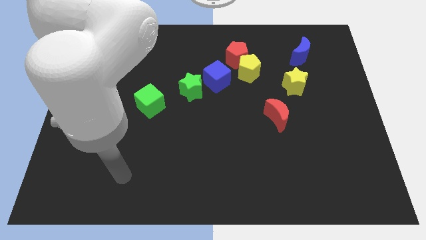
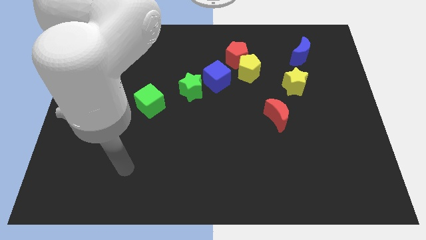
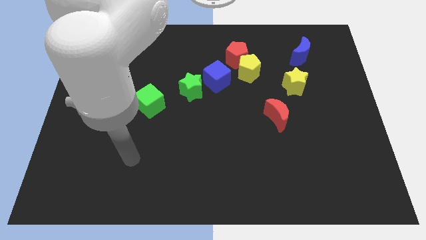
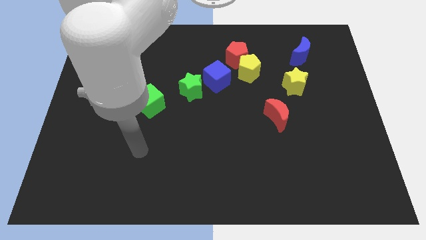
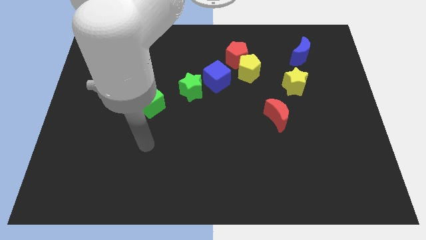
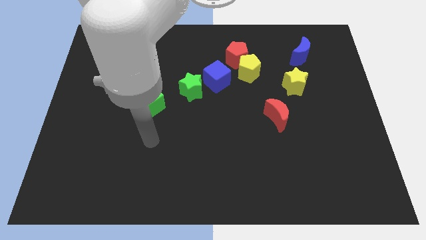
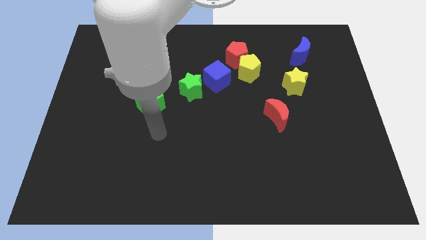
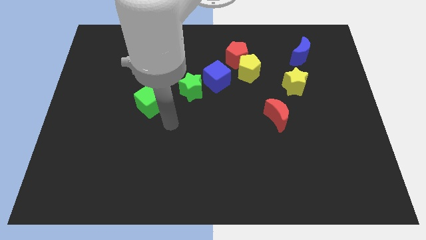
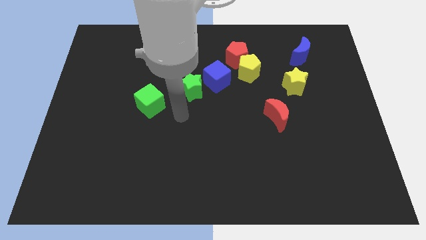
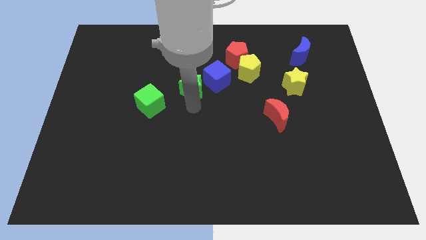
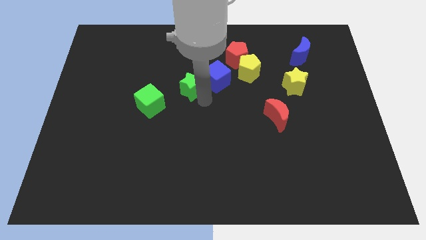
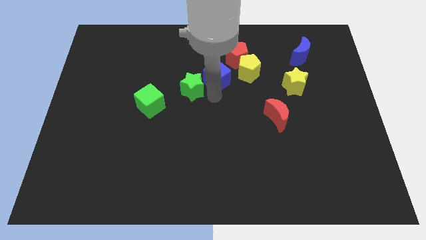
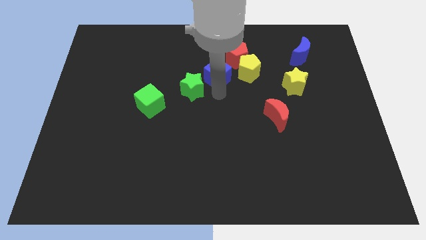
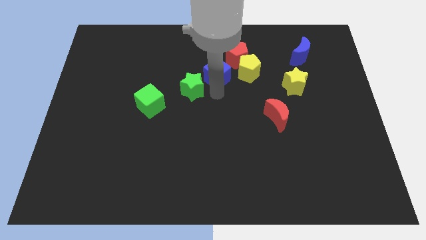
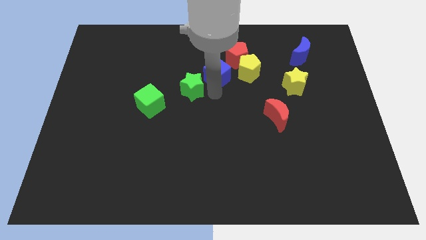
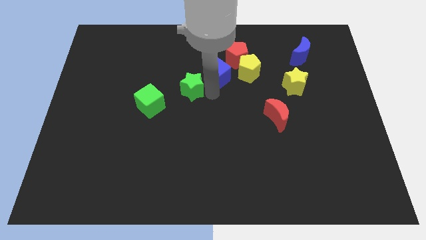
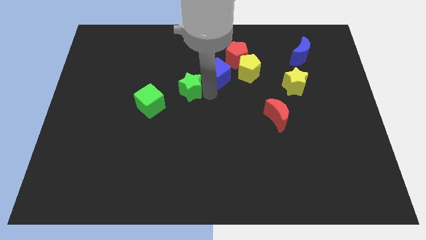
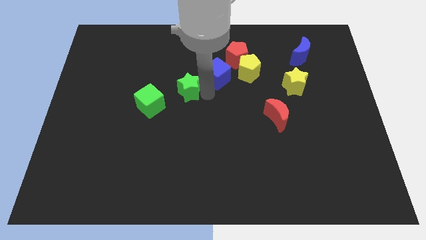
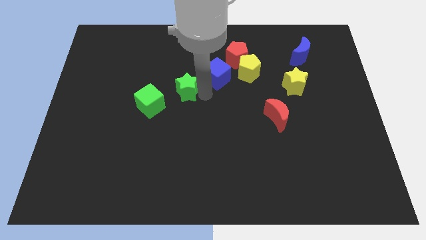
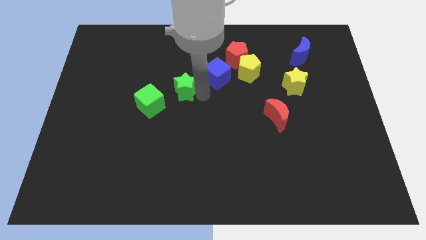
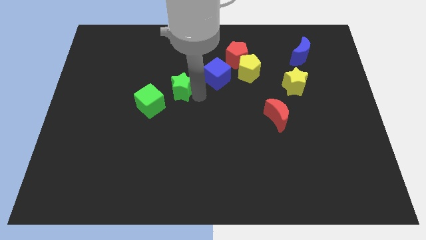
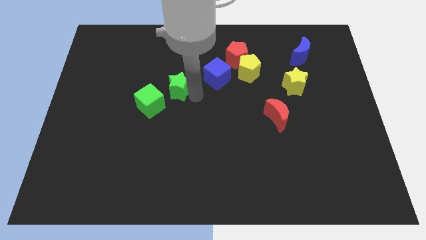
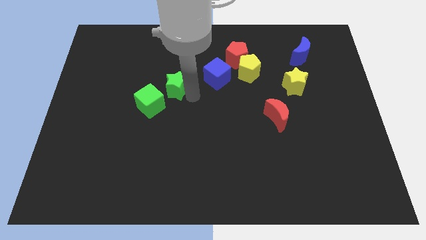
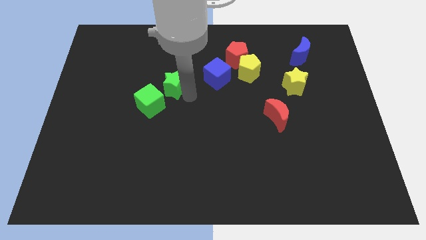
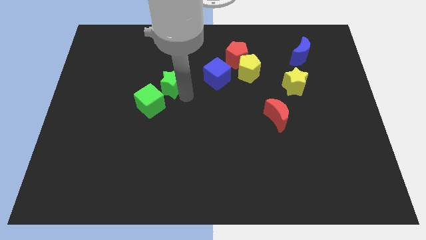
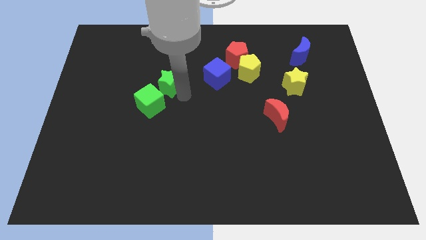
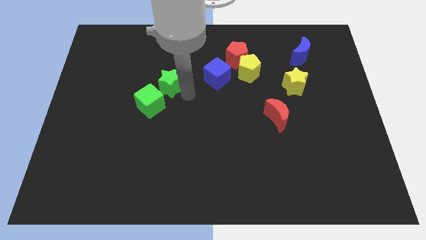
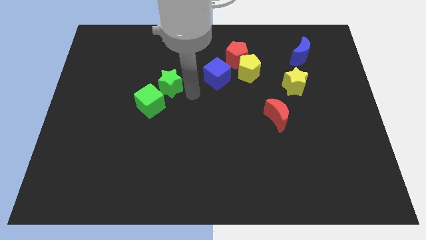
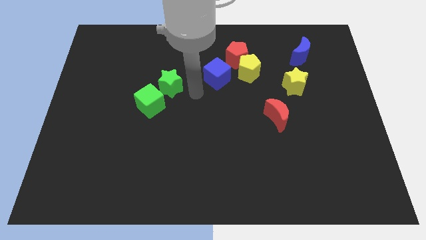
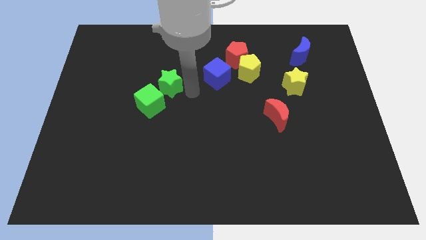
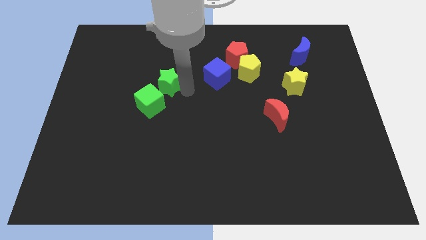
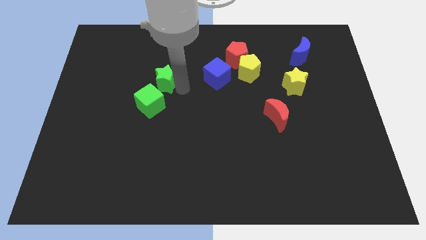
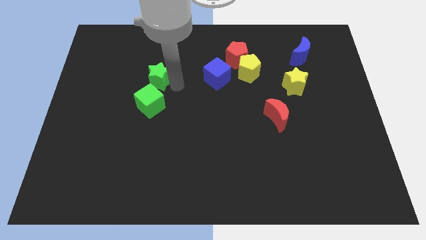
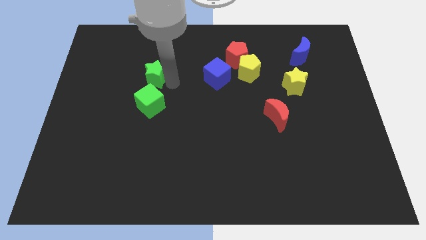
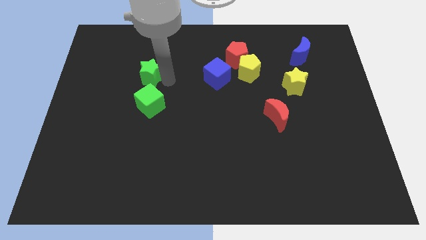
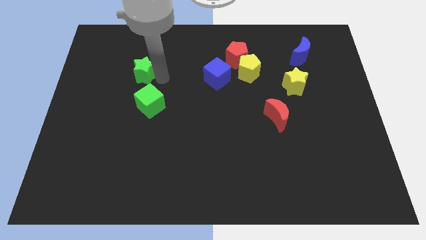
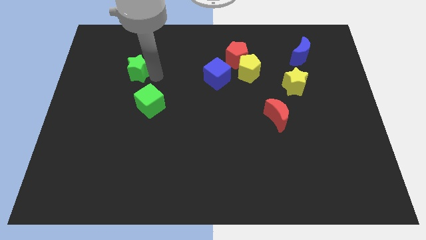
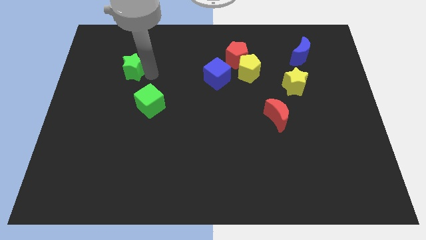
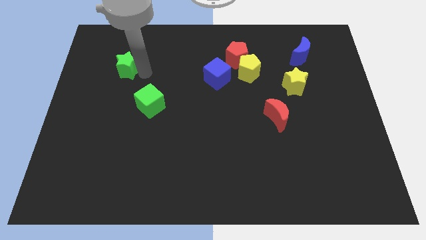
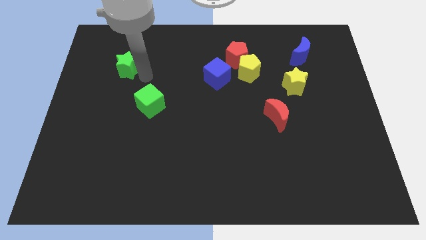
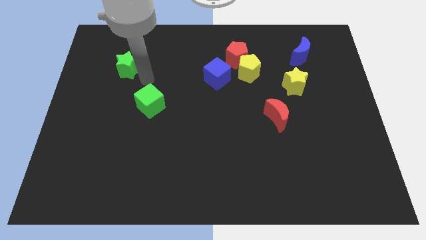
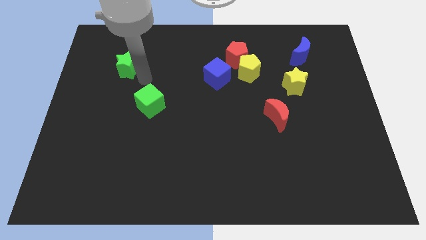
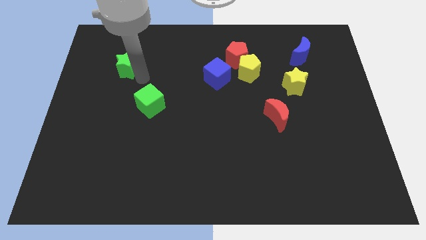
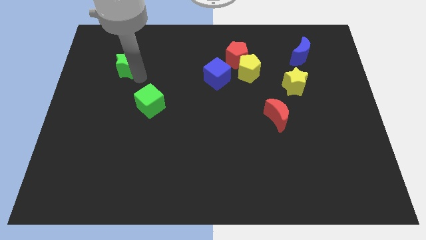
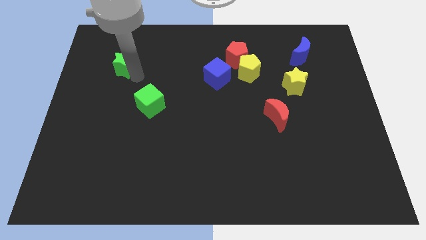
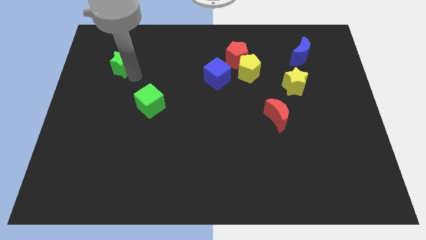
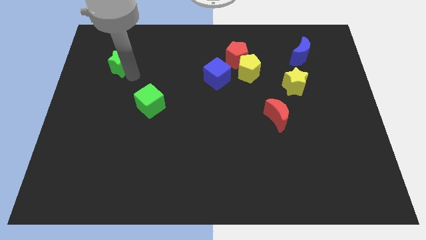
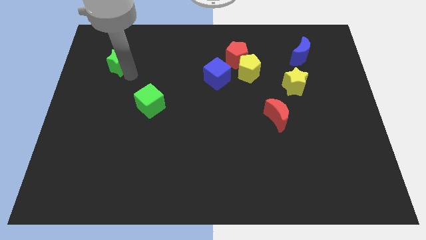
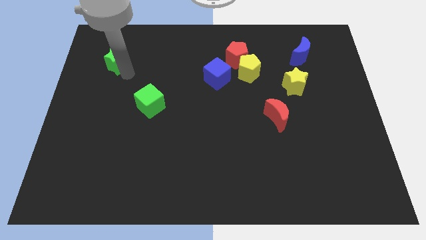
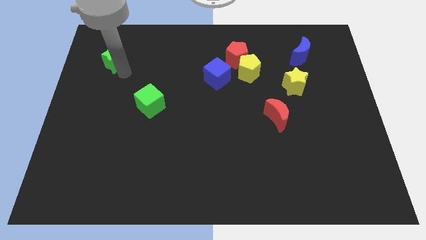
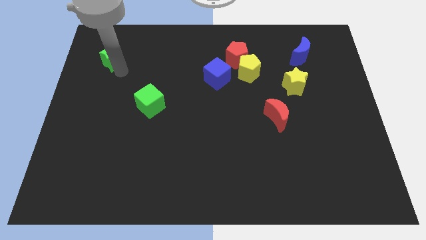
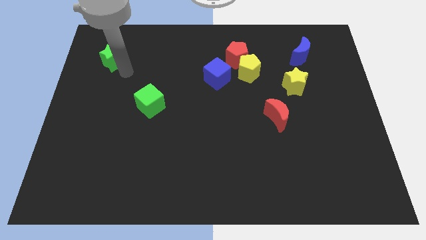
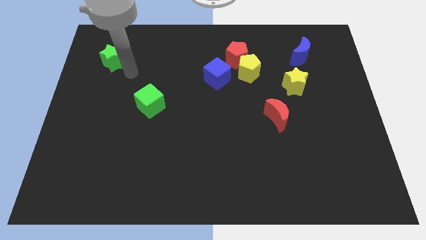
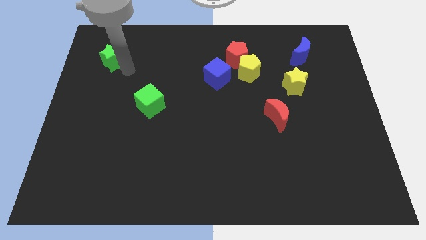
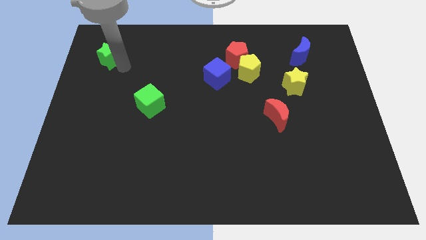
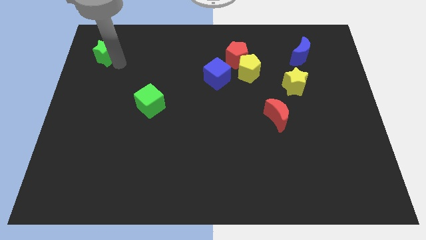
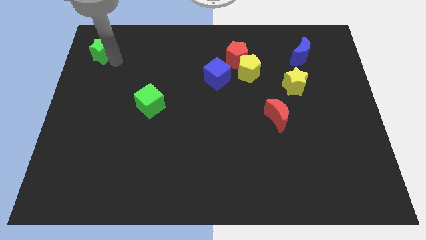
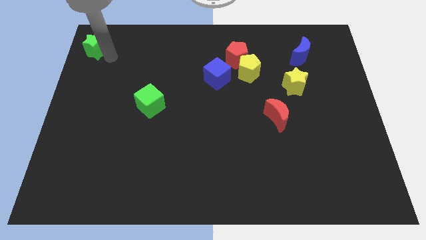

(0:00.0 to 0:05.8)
push the green star to the top left corner
